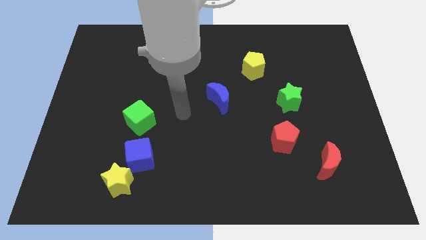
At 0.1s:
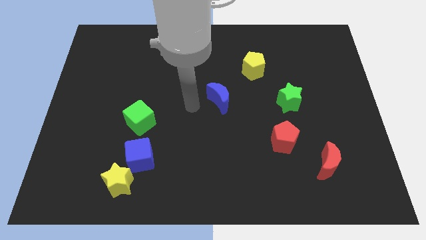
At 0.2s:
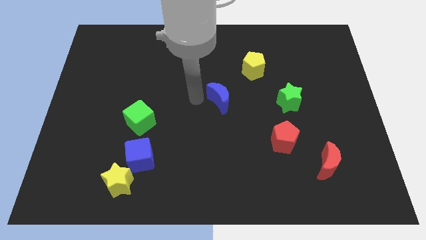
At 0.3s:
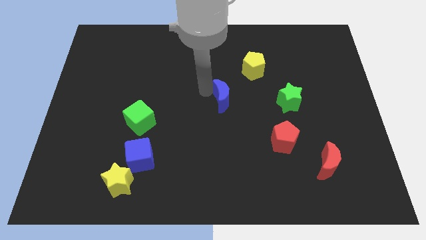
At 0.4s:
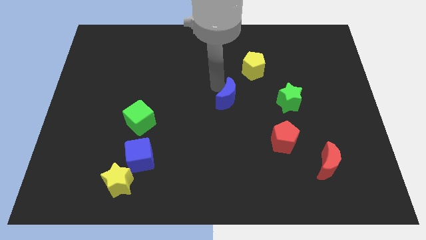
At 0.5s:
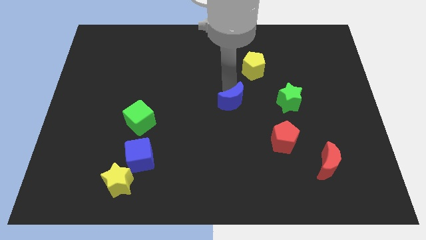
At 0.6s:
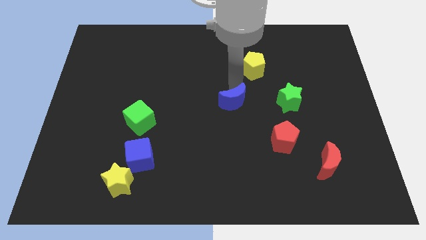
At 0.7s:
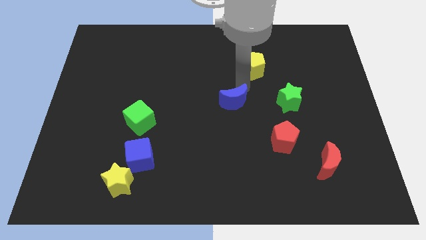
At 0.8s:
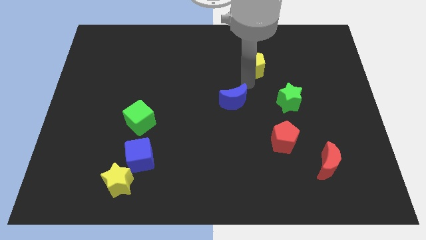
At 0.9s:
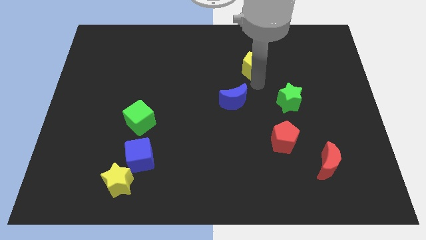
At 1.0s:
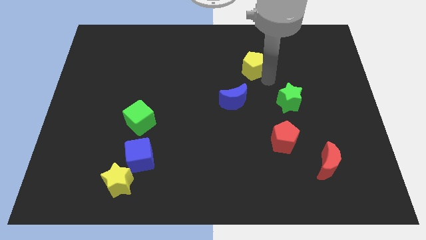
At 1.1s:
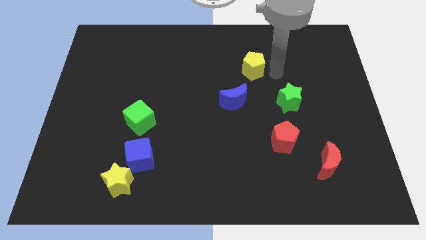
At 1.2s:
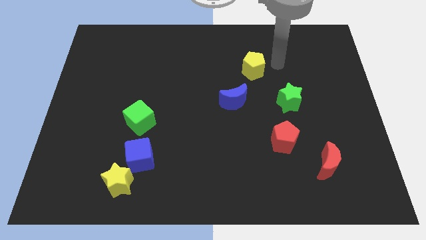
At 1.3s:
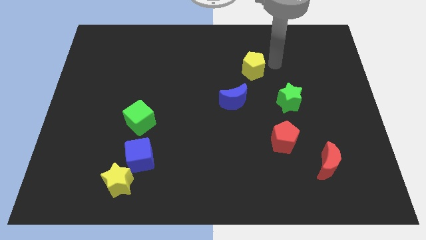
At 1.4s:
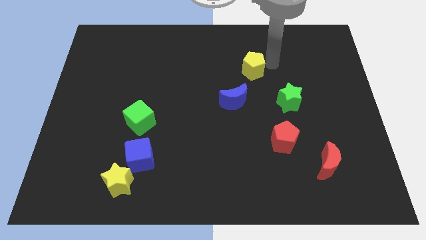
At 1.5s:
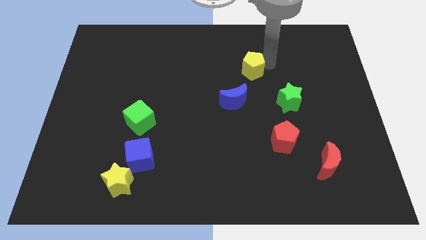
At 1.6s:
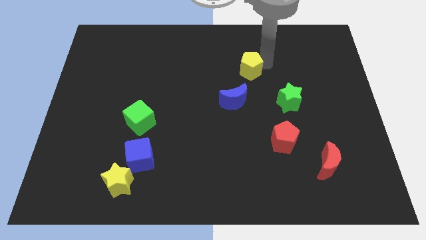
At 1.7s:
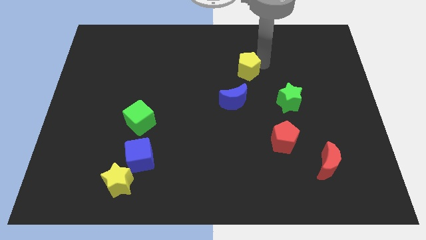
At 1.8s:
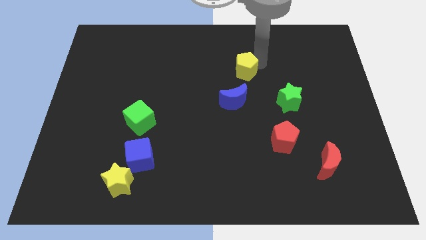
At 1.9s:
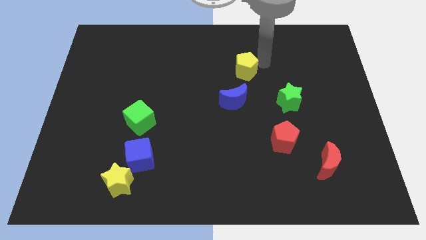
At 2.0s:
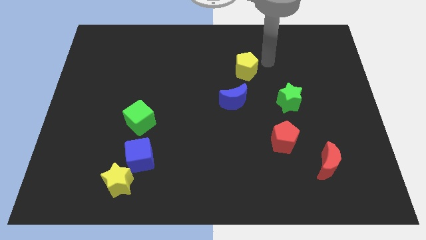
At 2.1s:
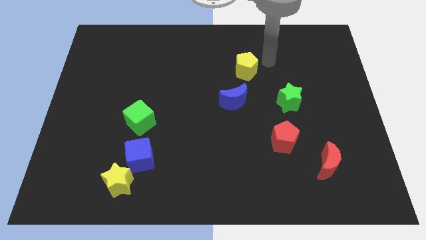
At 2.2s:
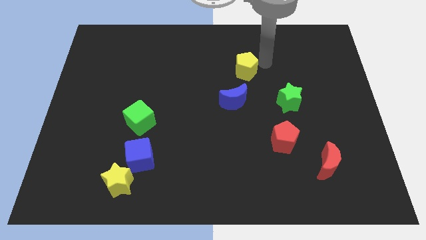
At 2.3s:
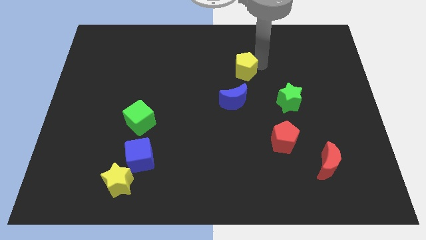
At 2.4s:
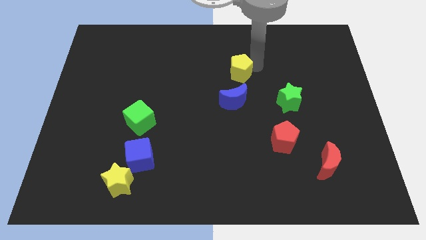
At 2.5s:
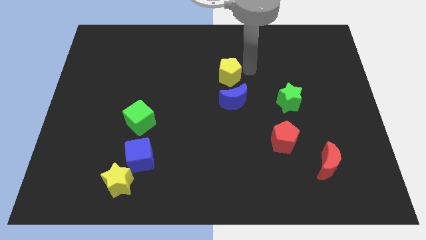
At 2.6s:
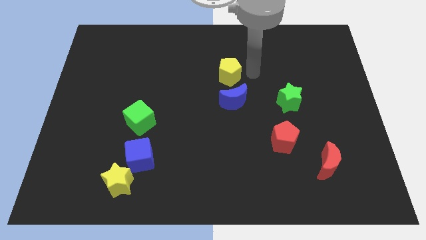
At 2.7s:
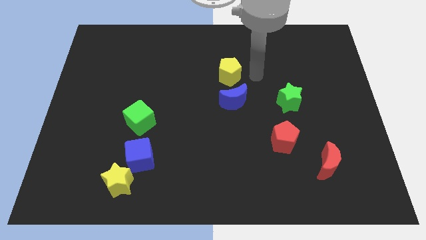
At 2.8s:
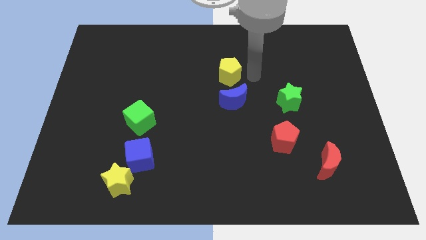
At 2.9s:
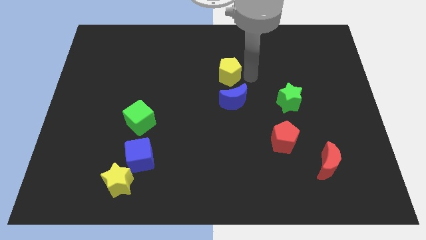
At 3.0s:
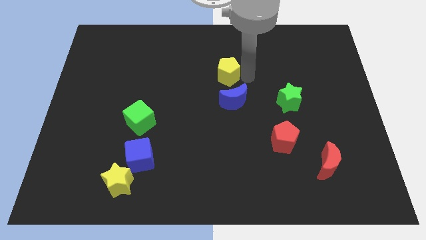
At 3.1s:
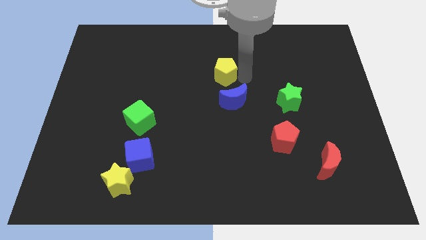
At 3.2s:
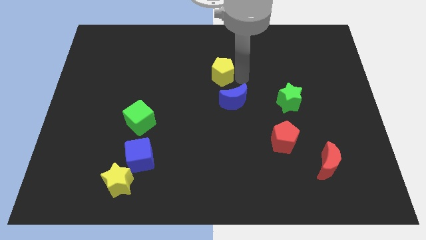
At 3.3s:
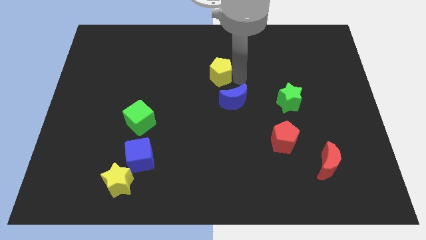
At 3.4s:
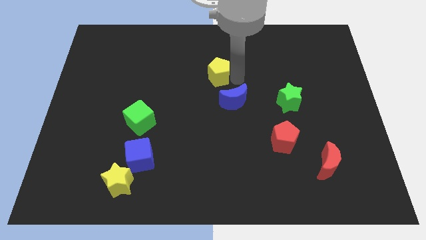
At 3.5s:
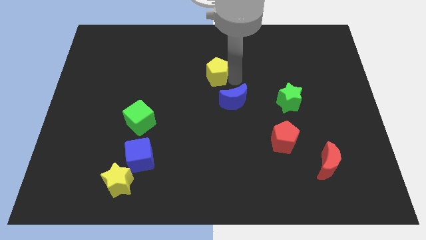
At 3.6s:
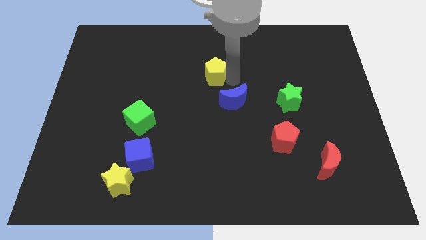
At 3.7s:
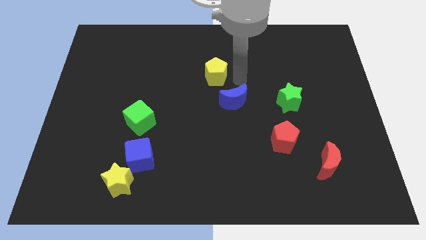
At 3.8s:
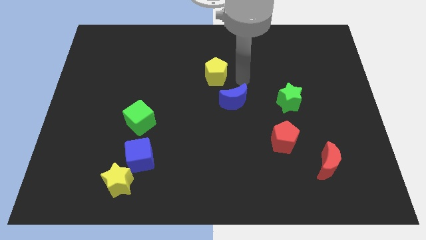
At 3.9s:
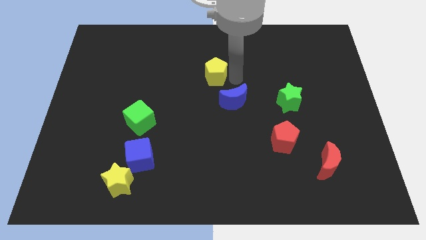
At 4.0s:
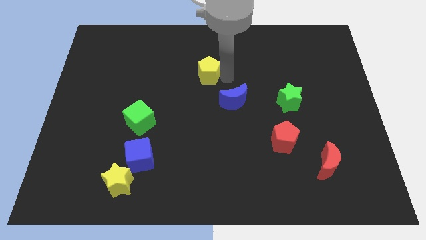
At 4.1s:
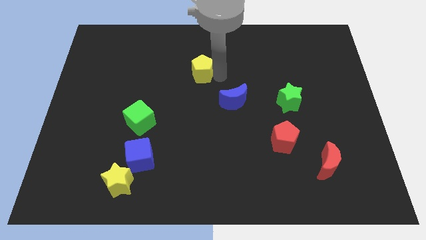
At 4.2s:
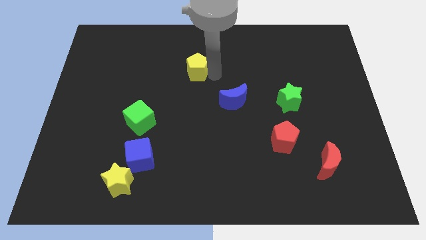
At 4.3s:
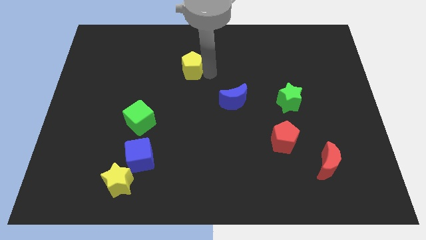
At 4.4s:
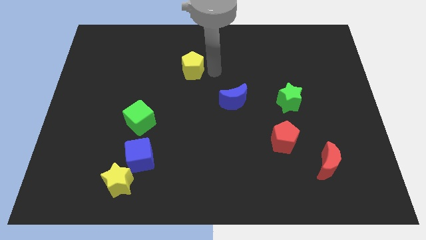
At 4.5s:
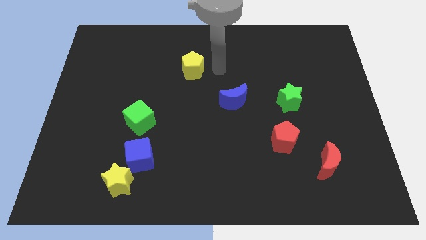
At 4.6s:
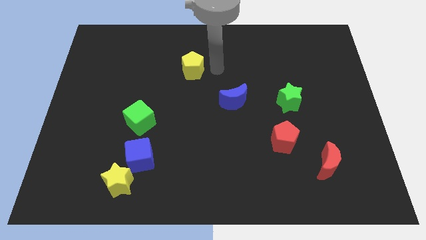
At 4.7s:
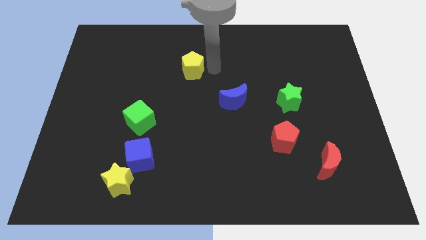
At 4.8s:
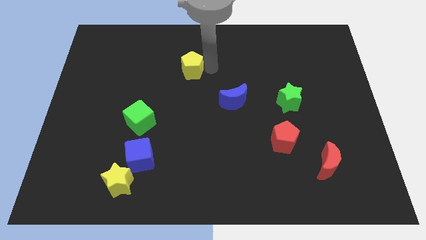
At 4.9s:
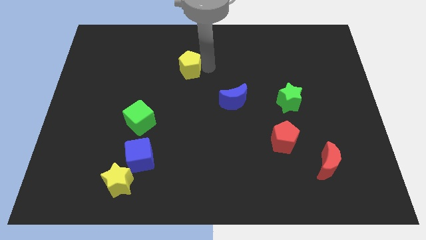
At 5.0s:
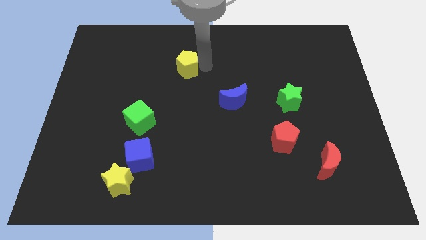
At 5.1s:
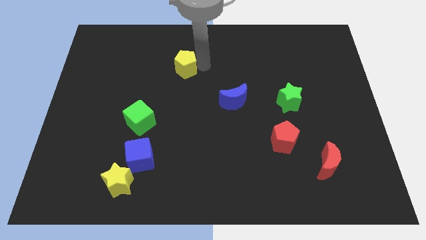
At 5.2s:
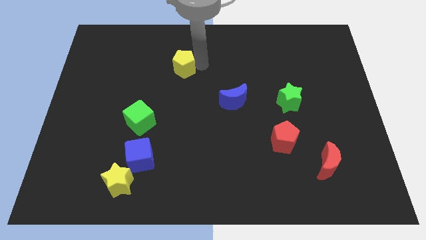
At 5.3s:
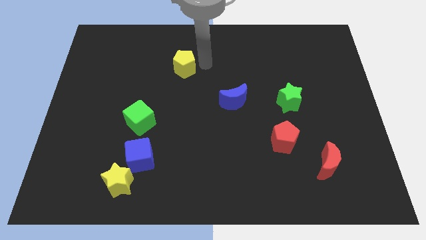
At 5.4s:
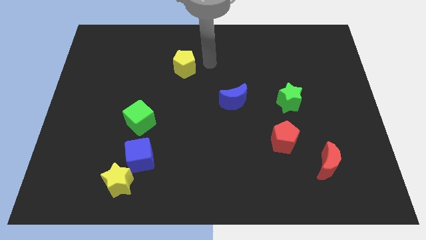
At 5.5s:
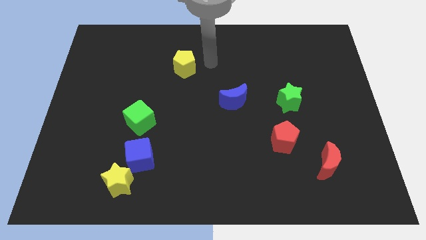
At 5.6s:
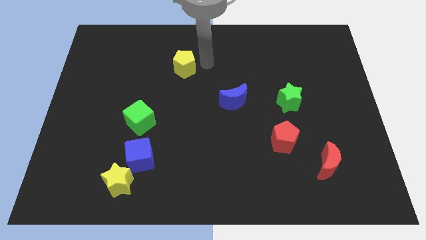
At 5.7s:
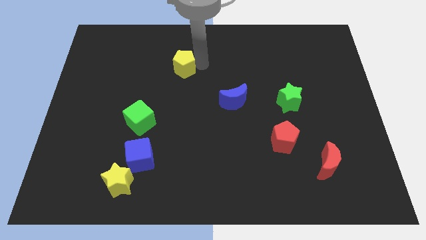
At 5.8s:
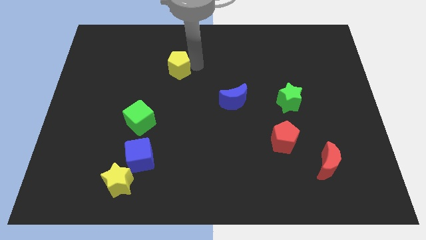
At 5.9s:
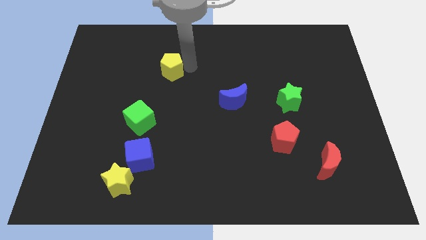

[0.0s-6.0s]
push the yellow pentagon left

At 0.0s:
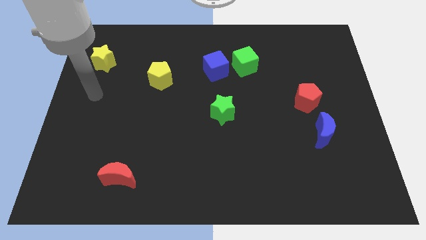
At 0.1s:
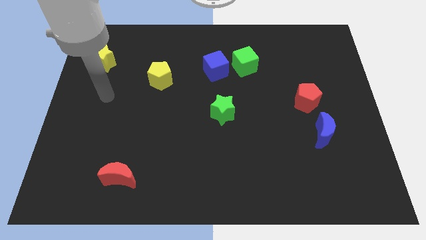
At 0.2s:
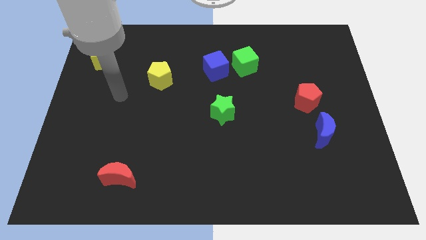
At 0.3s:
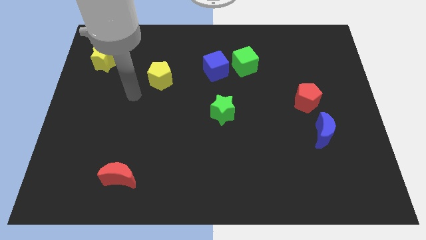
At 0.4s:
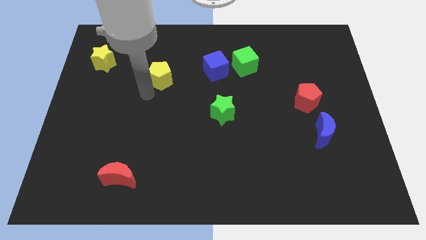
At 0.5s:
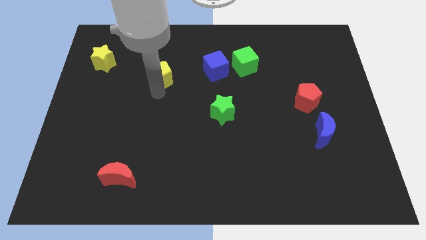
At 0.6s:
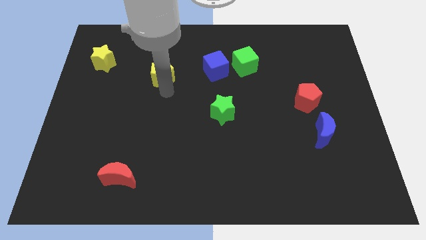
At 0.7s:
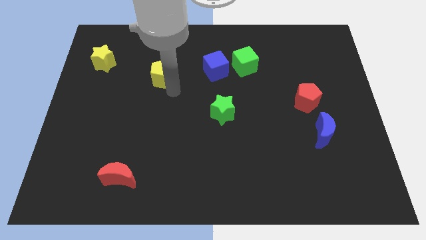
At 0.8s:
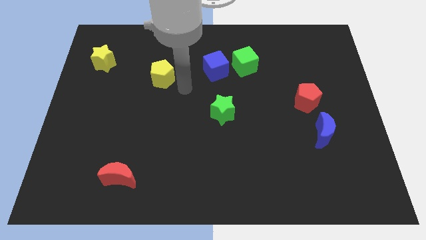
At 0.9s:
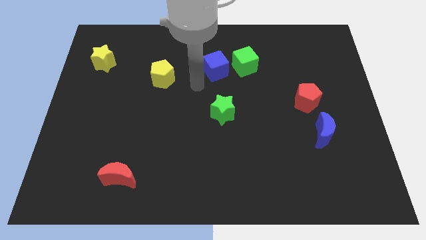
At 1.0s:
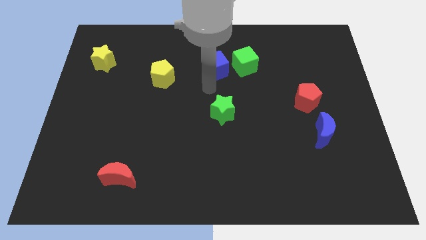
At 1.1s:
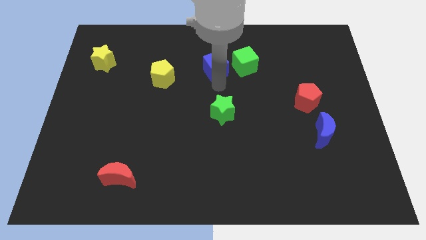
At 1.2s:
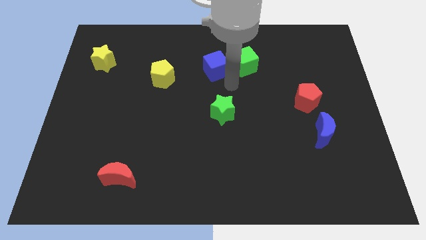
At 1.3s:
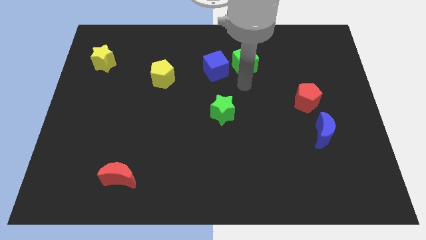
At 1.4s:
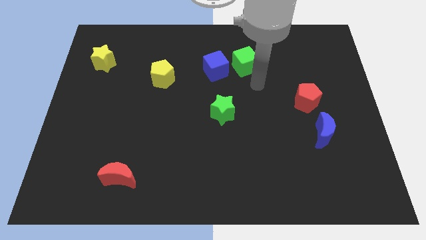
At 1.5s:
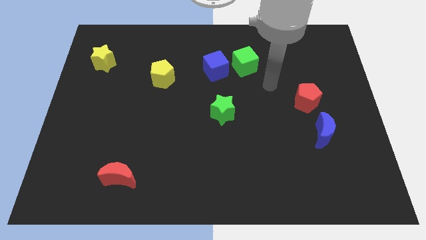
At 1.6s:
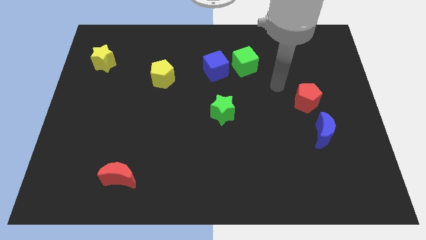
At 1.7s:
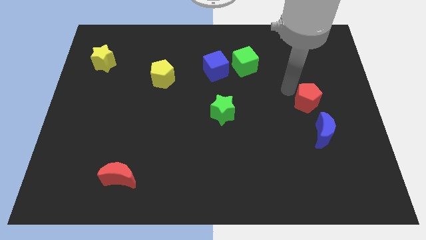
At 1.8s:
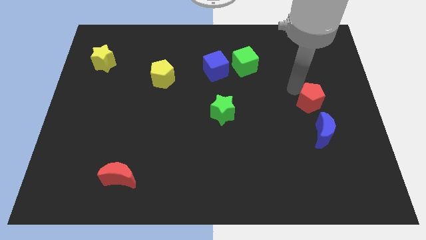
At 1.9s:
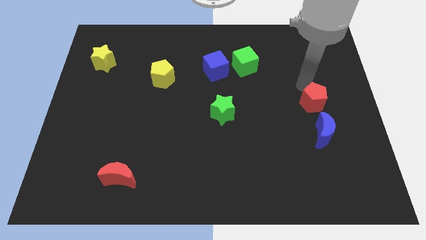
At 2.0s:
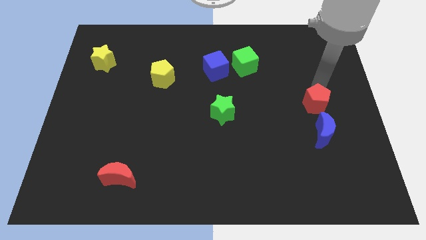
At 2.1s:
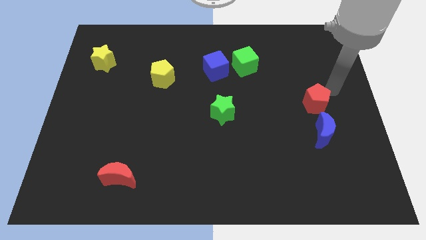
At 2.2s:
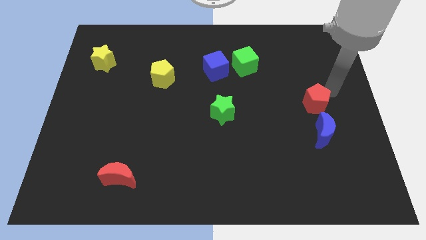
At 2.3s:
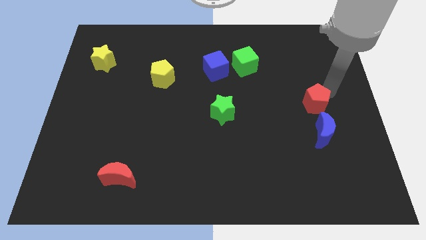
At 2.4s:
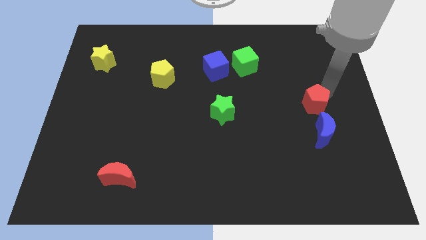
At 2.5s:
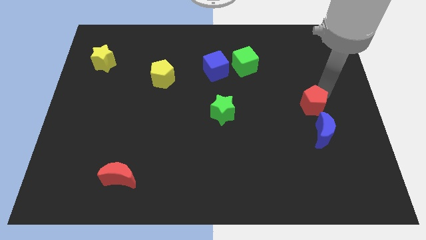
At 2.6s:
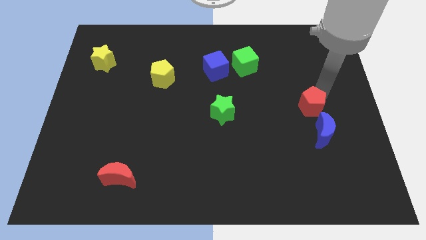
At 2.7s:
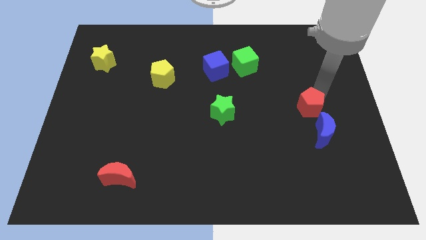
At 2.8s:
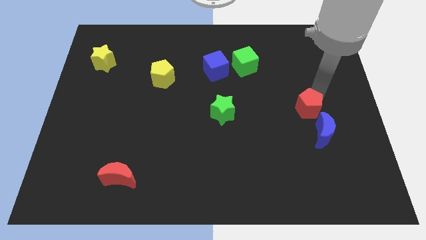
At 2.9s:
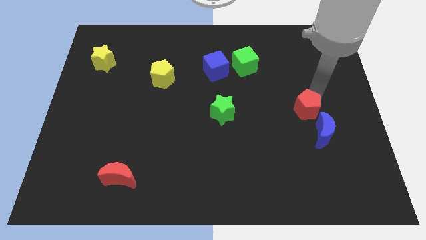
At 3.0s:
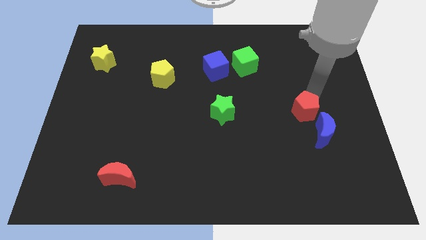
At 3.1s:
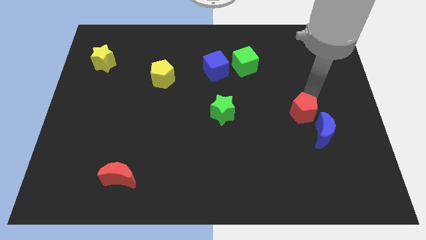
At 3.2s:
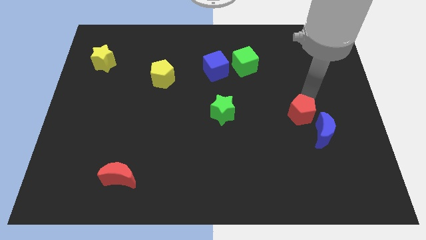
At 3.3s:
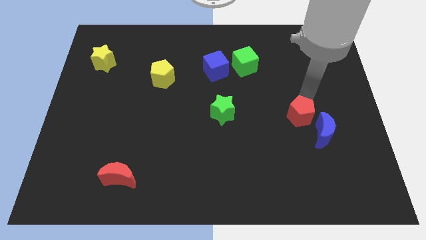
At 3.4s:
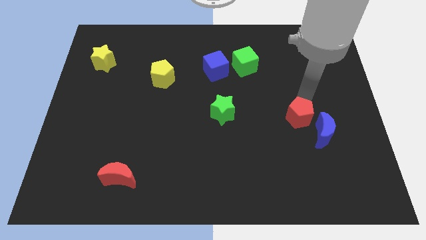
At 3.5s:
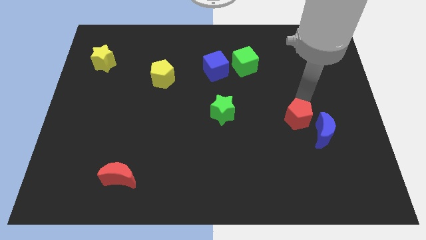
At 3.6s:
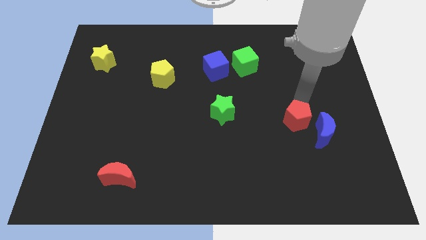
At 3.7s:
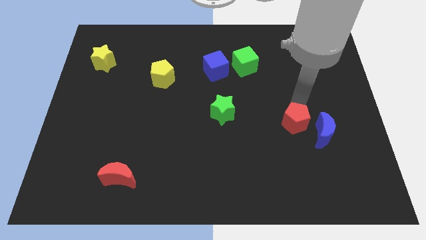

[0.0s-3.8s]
move the red pentagon diagonally down and to the left a bit
